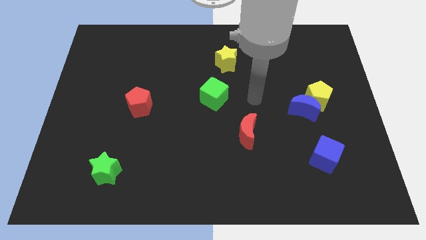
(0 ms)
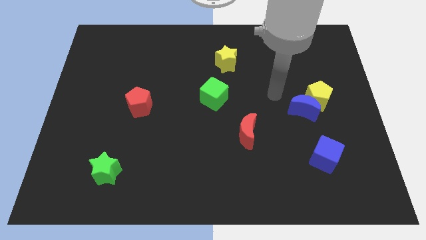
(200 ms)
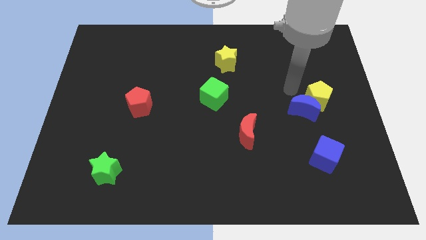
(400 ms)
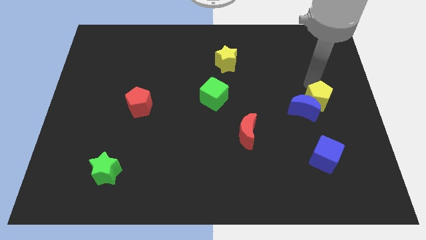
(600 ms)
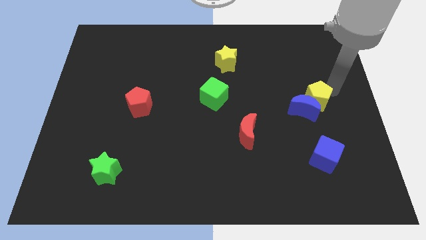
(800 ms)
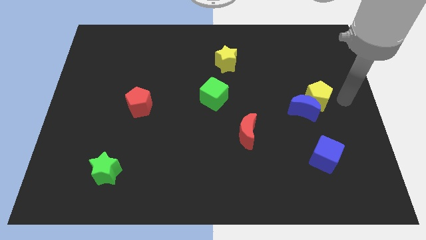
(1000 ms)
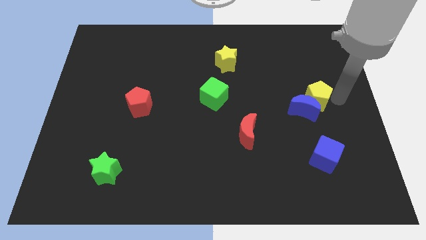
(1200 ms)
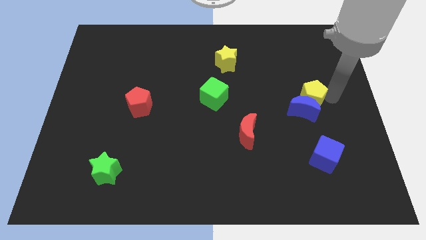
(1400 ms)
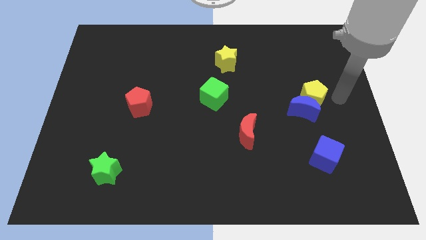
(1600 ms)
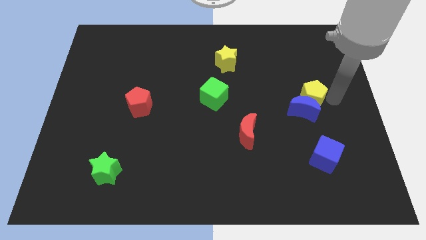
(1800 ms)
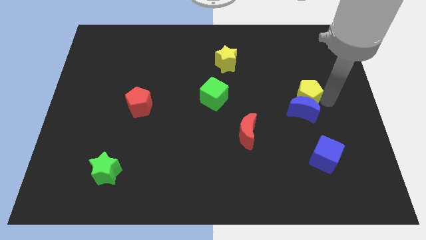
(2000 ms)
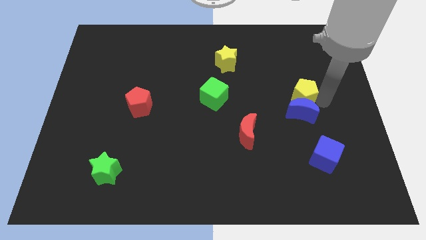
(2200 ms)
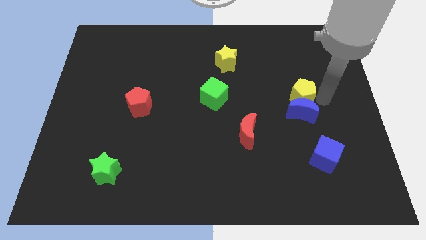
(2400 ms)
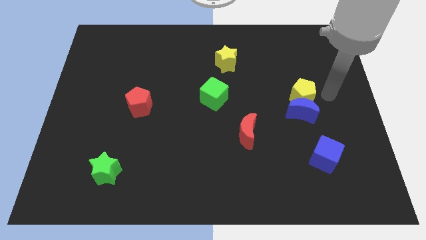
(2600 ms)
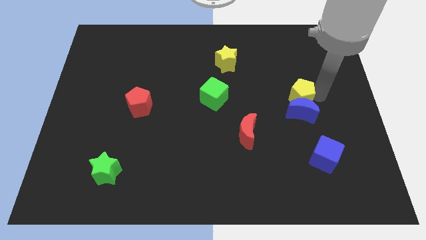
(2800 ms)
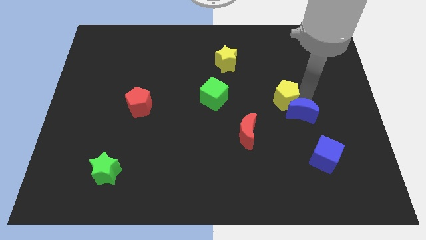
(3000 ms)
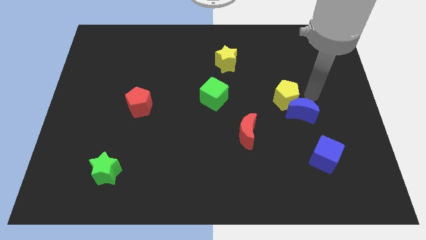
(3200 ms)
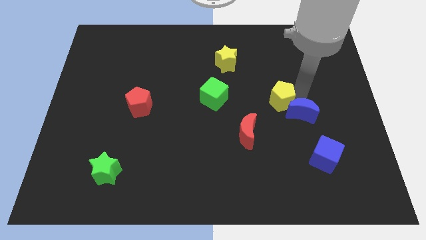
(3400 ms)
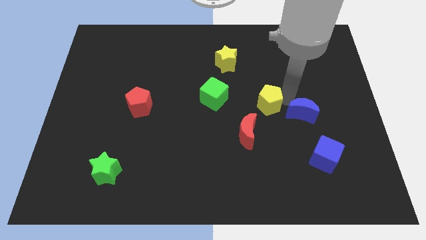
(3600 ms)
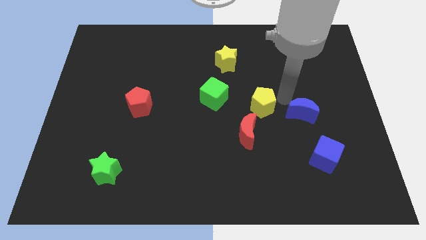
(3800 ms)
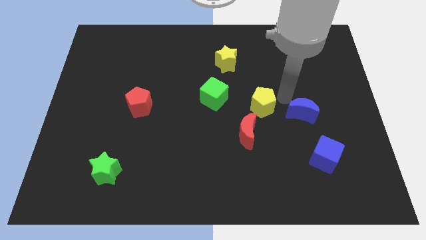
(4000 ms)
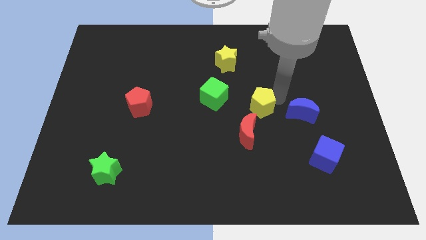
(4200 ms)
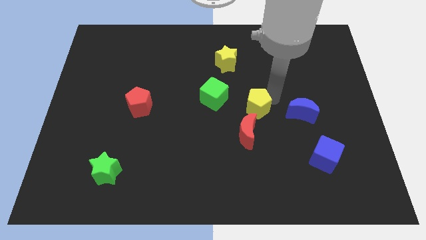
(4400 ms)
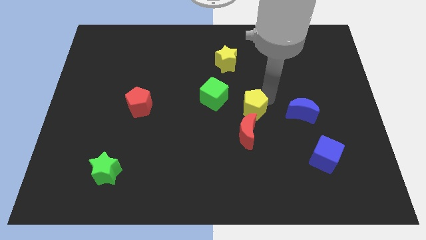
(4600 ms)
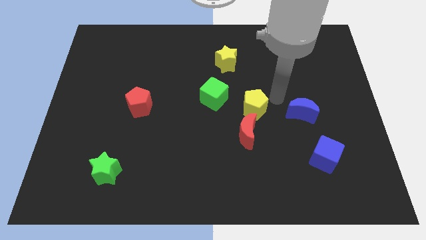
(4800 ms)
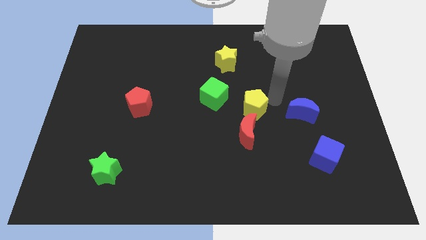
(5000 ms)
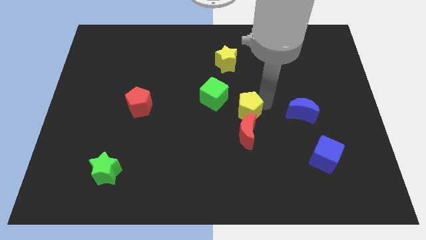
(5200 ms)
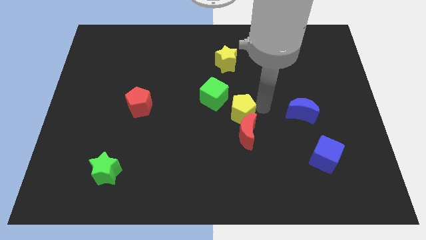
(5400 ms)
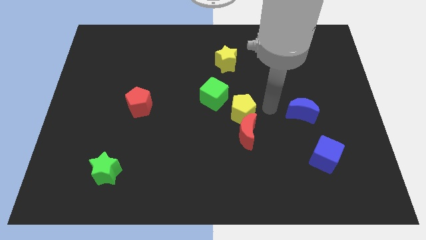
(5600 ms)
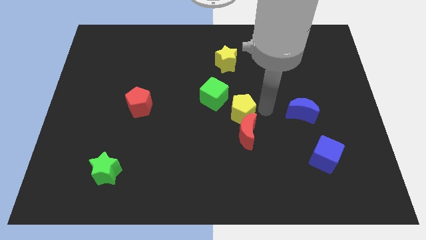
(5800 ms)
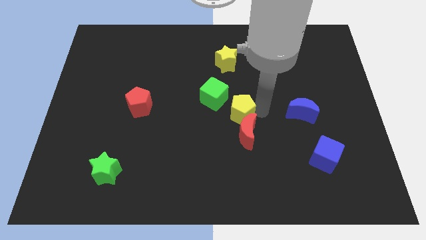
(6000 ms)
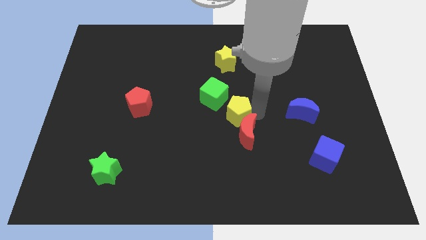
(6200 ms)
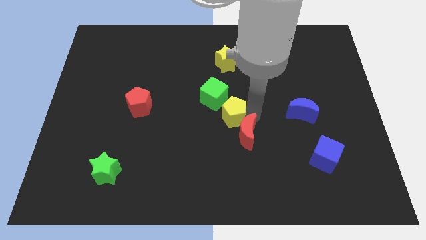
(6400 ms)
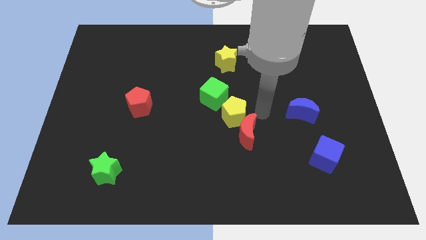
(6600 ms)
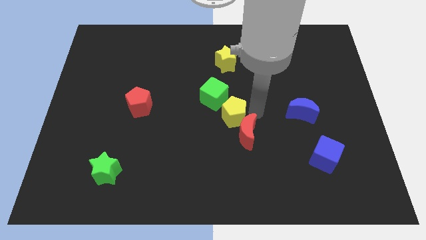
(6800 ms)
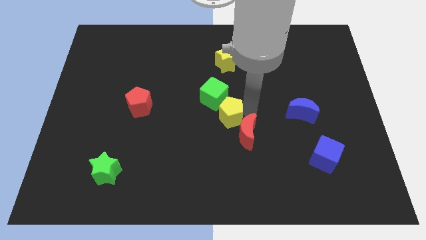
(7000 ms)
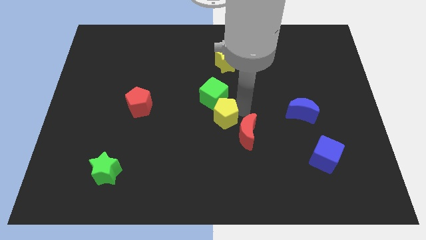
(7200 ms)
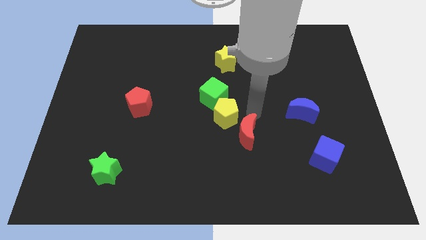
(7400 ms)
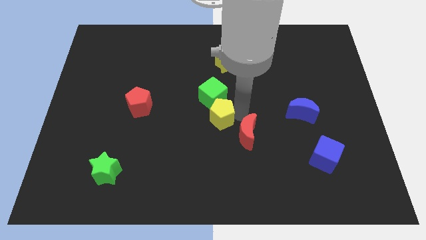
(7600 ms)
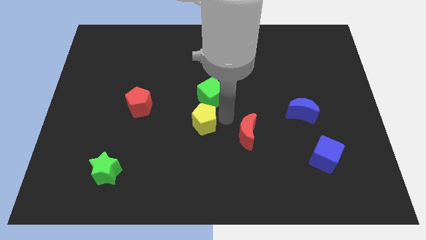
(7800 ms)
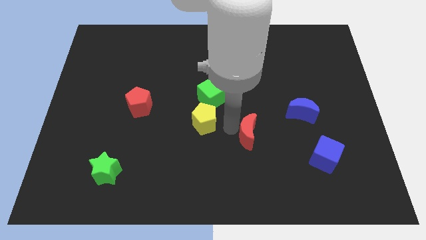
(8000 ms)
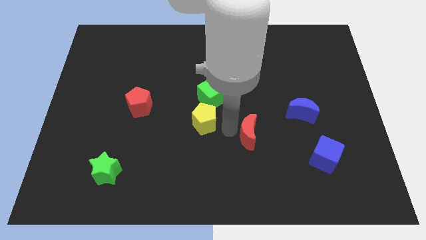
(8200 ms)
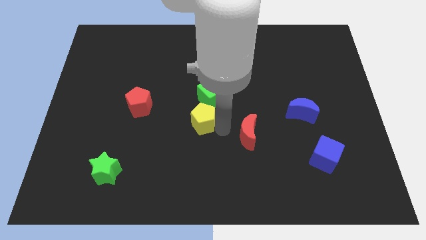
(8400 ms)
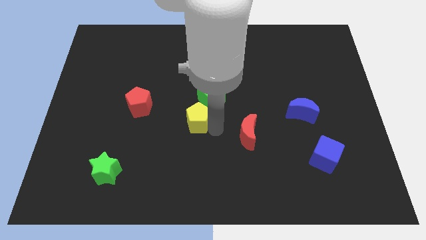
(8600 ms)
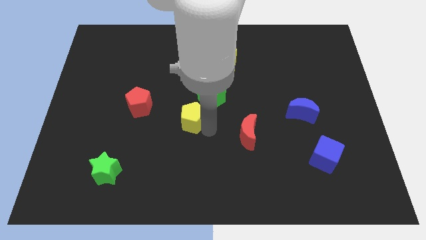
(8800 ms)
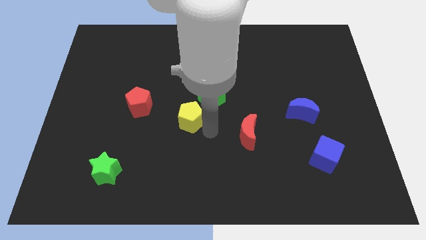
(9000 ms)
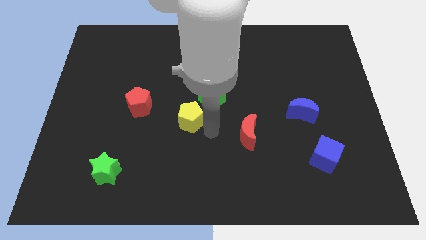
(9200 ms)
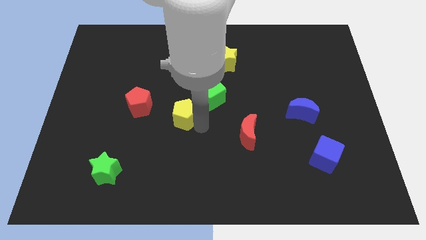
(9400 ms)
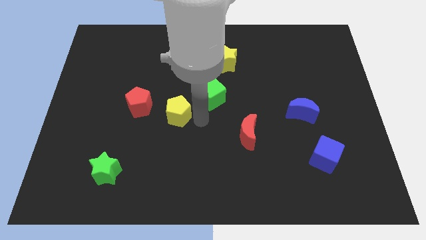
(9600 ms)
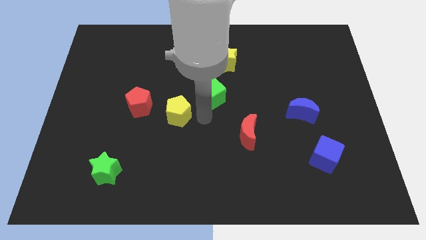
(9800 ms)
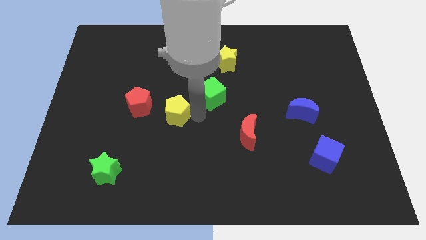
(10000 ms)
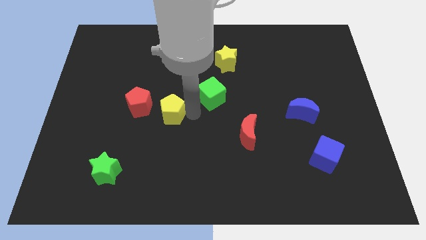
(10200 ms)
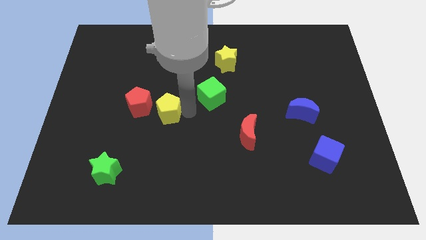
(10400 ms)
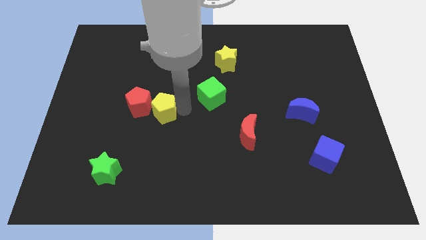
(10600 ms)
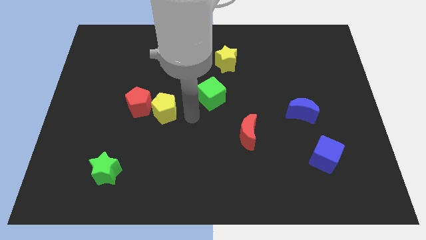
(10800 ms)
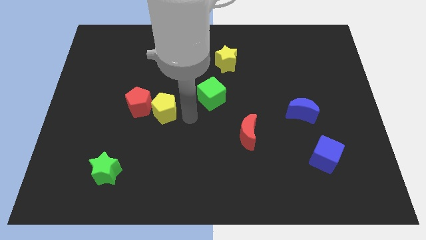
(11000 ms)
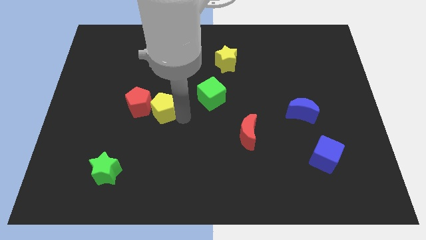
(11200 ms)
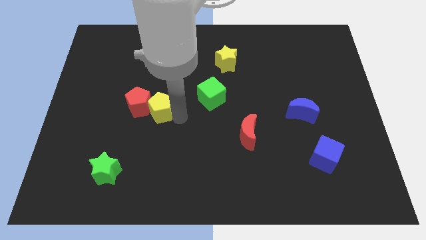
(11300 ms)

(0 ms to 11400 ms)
put the yellow pentagon close to the red pentagon

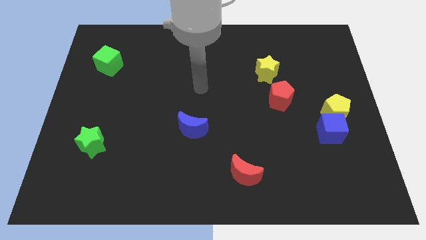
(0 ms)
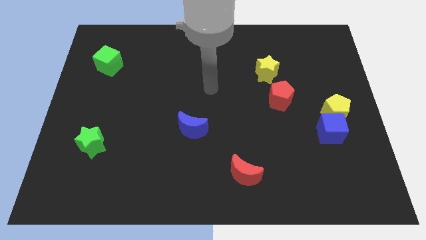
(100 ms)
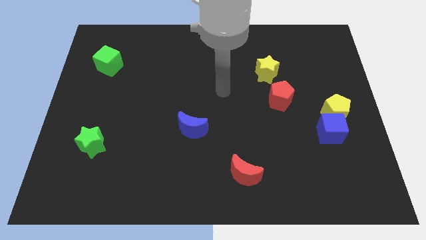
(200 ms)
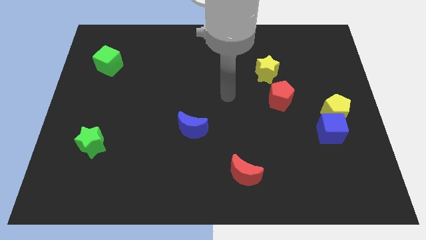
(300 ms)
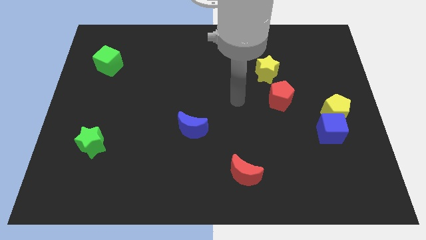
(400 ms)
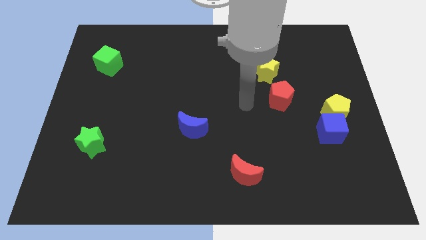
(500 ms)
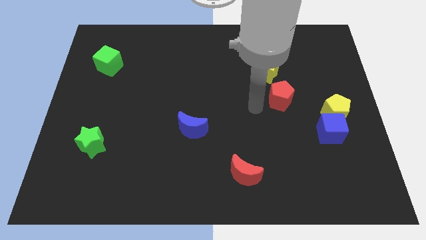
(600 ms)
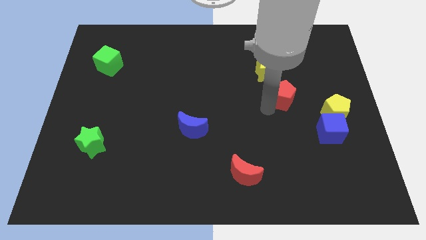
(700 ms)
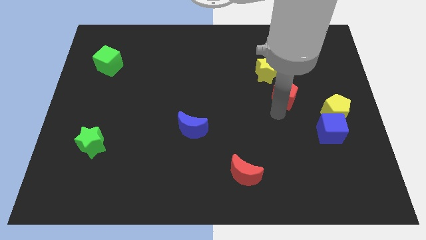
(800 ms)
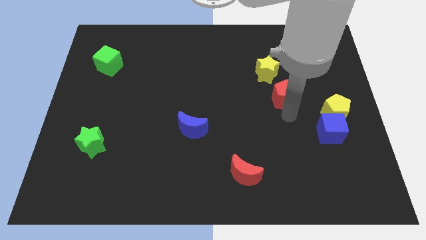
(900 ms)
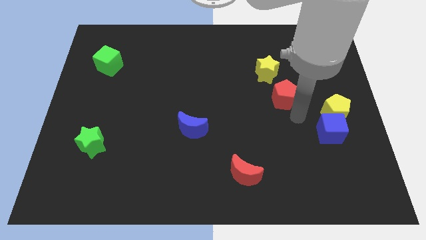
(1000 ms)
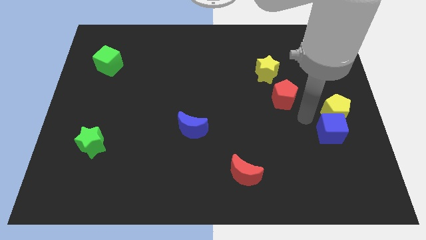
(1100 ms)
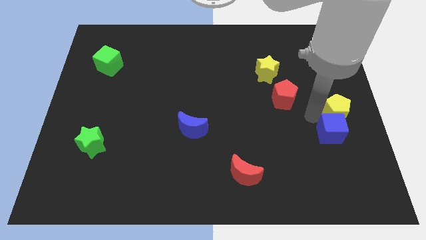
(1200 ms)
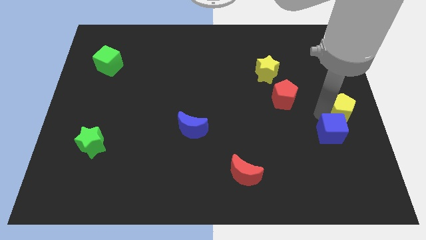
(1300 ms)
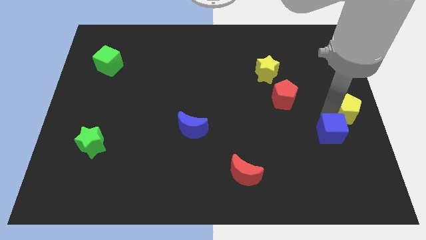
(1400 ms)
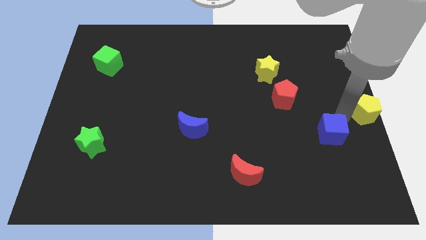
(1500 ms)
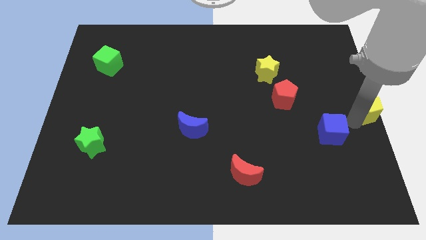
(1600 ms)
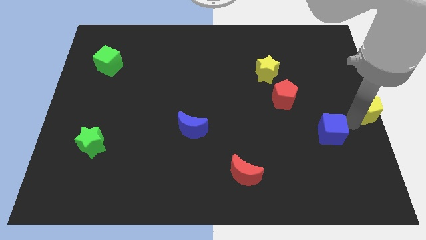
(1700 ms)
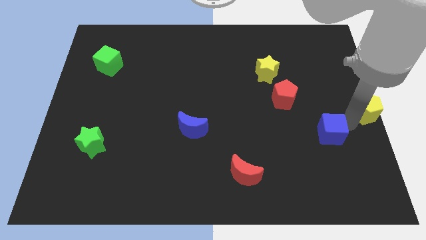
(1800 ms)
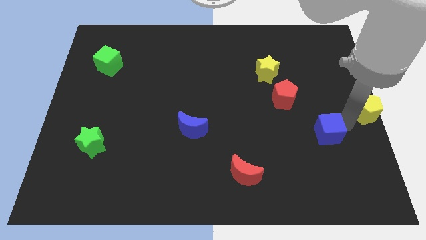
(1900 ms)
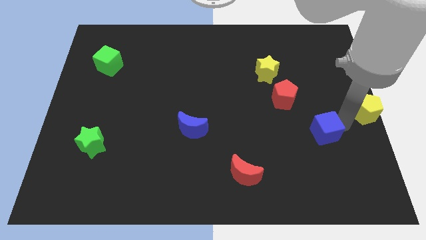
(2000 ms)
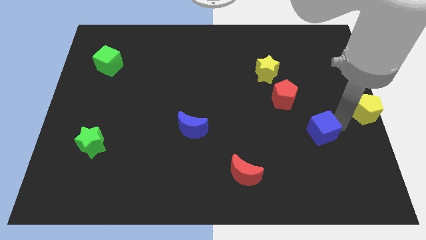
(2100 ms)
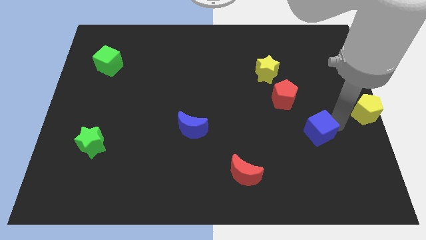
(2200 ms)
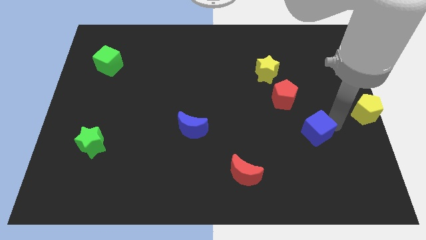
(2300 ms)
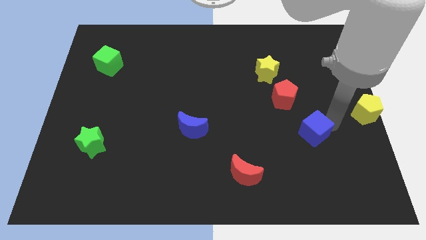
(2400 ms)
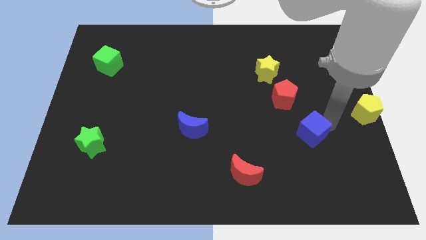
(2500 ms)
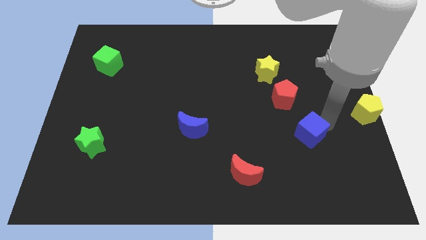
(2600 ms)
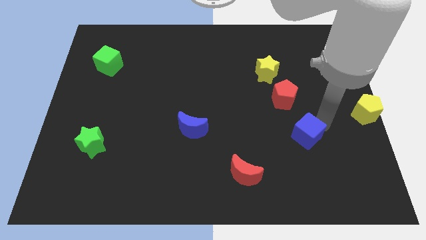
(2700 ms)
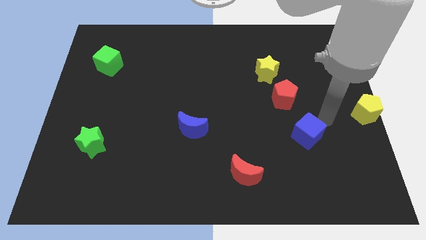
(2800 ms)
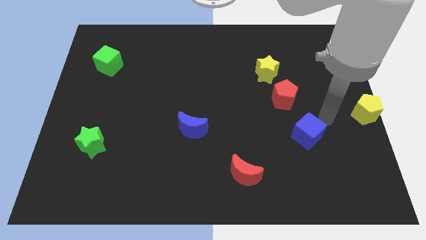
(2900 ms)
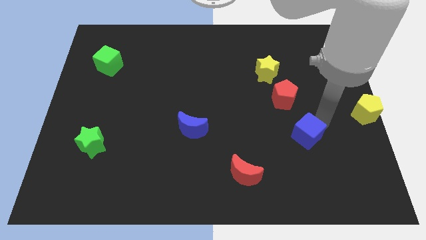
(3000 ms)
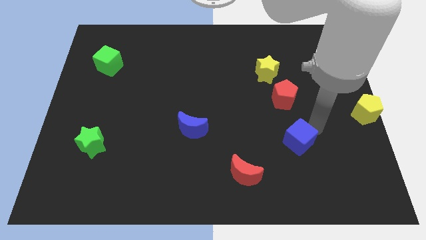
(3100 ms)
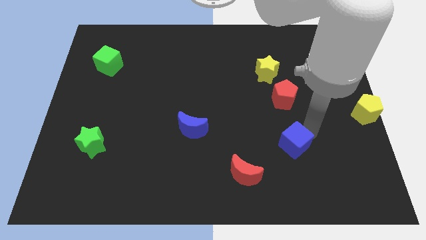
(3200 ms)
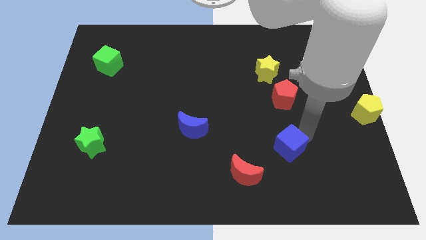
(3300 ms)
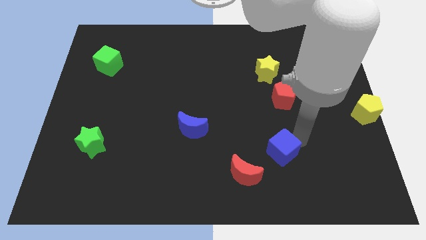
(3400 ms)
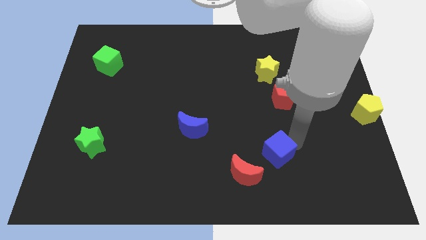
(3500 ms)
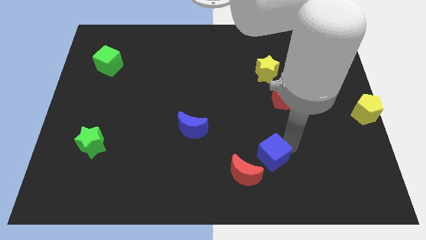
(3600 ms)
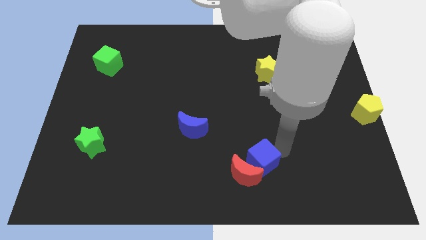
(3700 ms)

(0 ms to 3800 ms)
move the blue cube close to the red moon
